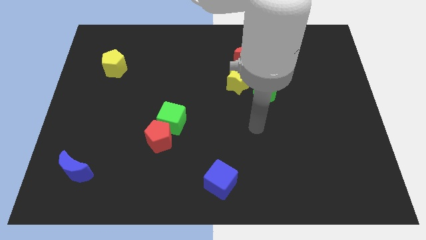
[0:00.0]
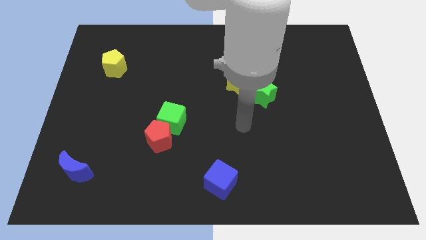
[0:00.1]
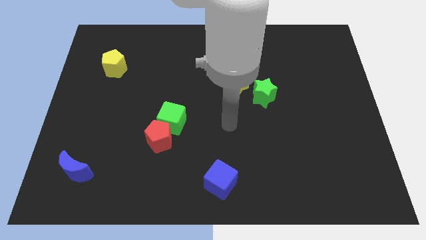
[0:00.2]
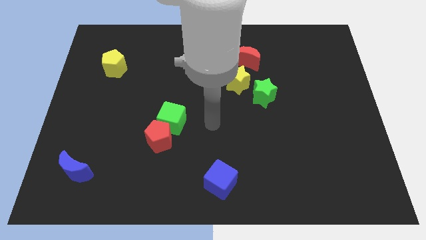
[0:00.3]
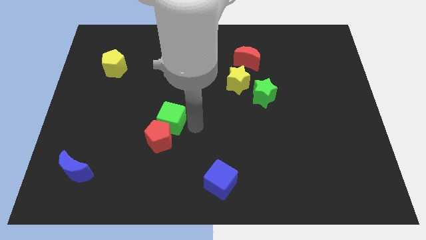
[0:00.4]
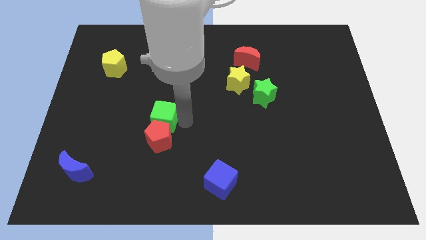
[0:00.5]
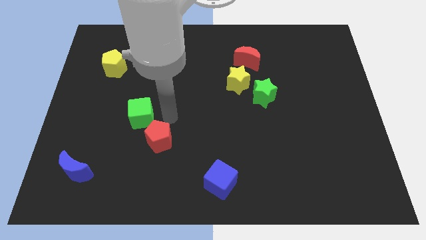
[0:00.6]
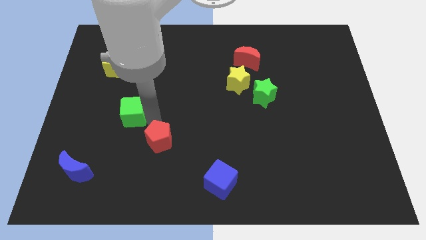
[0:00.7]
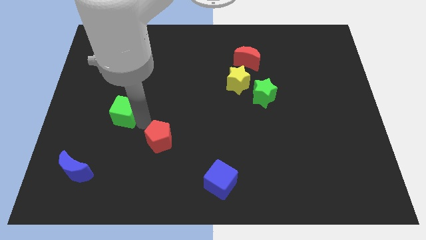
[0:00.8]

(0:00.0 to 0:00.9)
move the red pentagon away from the green cube

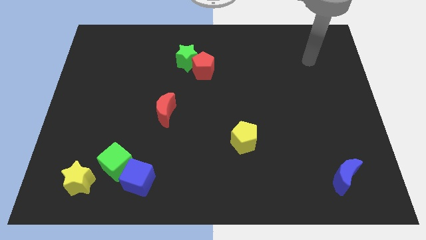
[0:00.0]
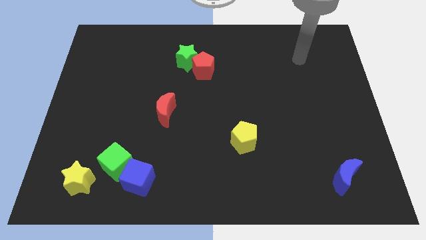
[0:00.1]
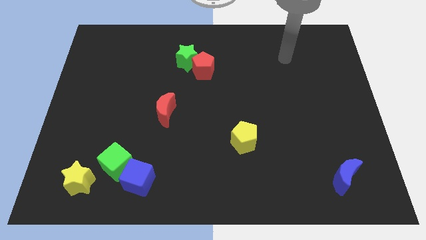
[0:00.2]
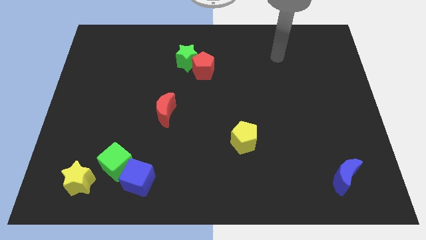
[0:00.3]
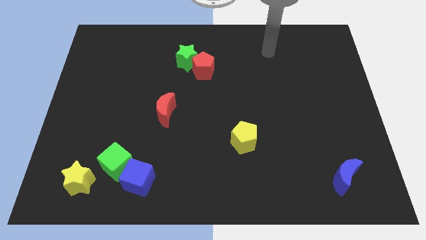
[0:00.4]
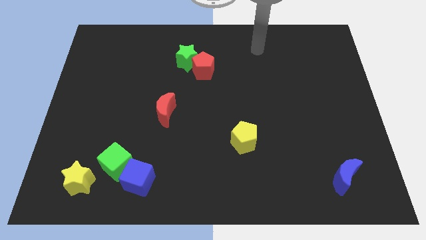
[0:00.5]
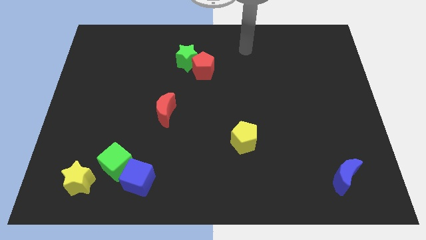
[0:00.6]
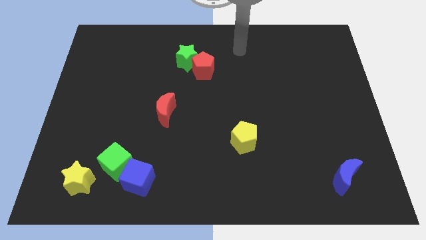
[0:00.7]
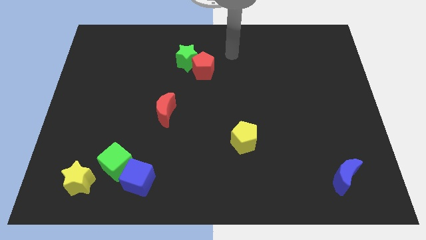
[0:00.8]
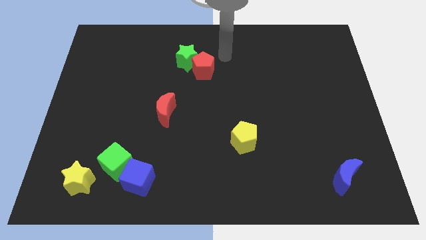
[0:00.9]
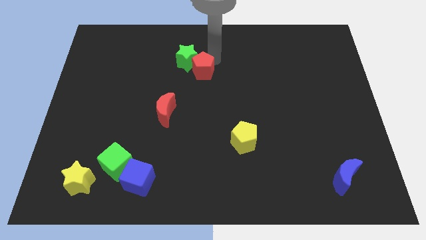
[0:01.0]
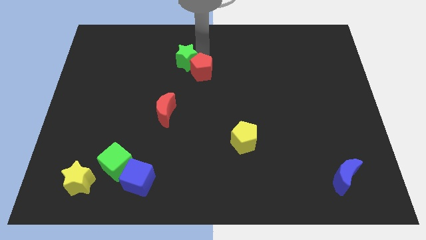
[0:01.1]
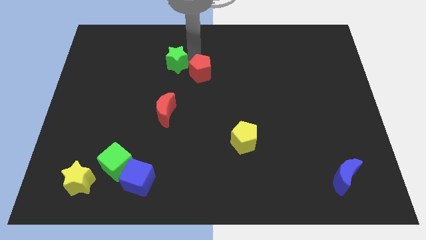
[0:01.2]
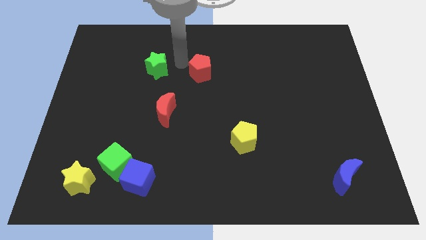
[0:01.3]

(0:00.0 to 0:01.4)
pull the red pentagon apart from the green star

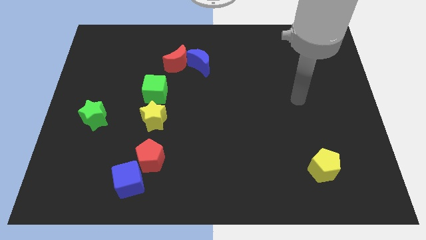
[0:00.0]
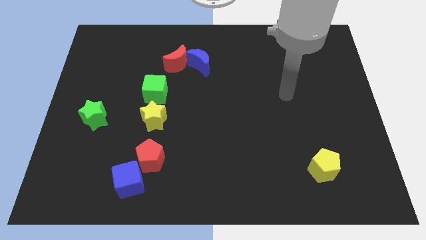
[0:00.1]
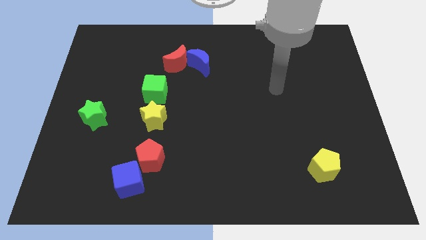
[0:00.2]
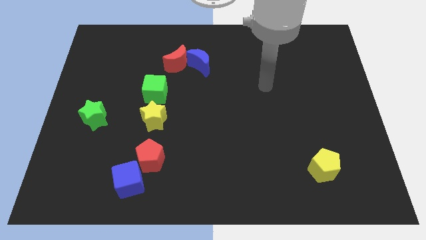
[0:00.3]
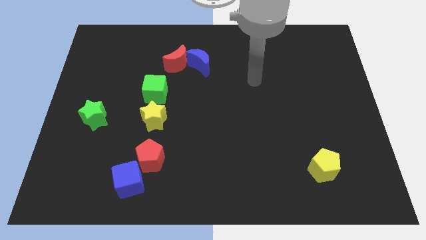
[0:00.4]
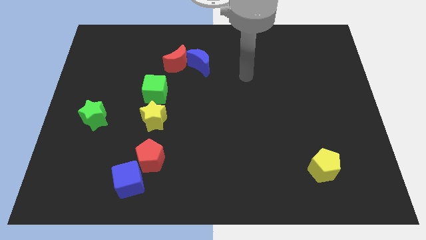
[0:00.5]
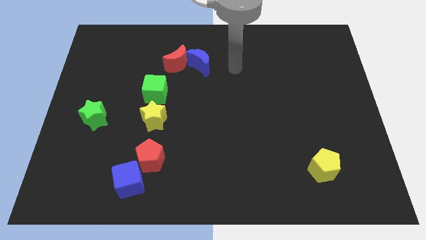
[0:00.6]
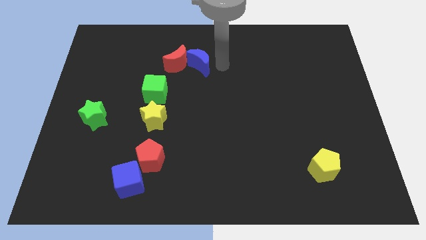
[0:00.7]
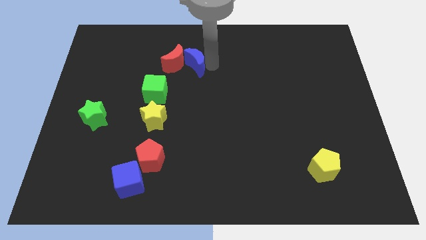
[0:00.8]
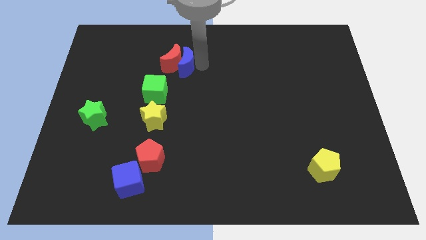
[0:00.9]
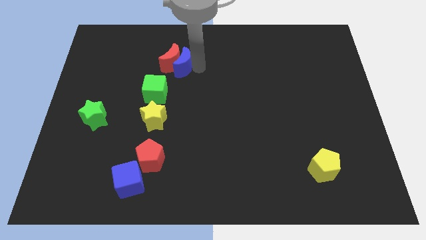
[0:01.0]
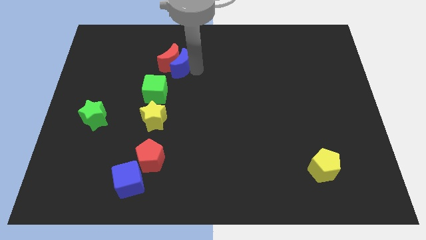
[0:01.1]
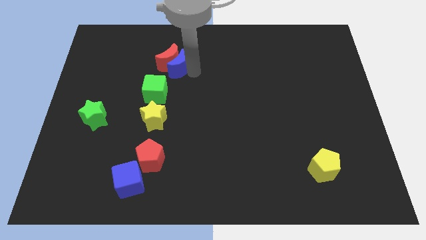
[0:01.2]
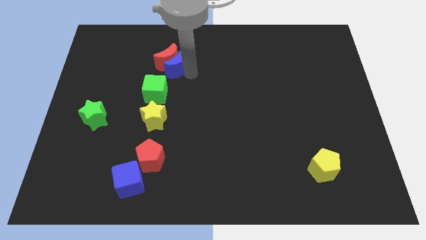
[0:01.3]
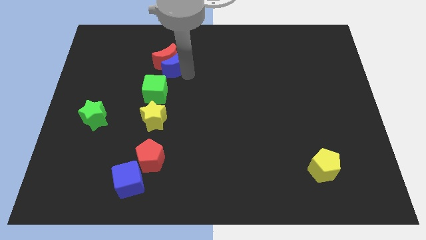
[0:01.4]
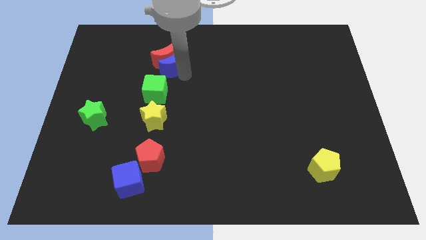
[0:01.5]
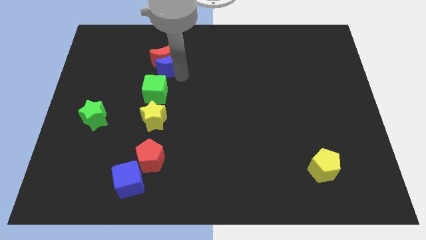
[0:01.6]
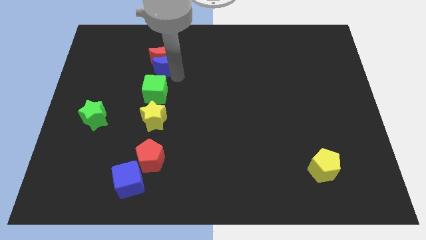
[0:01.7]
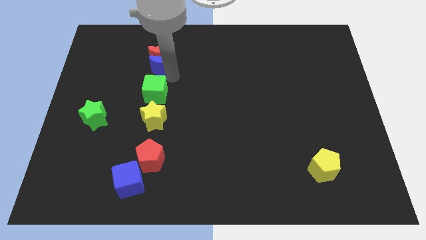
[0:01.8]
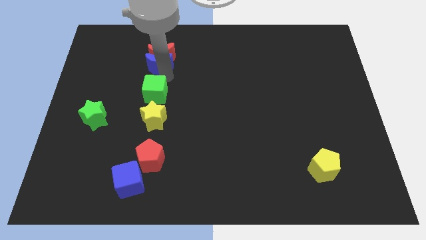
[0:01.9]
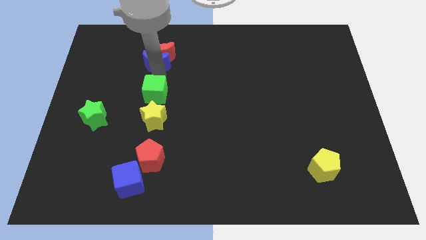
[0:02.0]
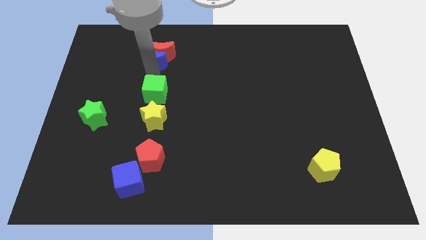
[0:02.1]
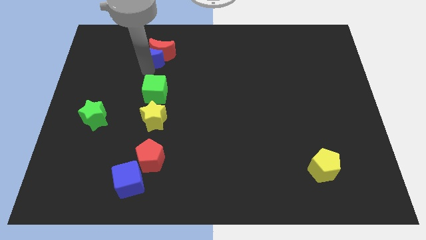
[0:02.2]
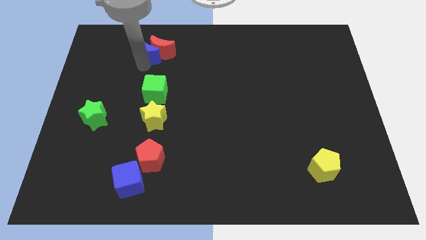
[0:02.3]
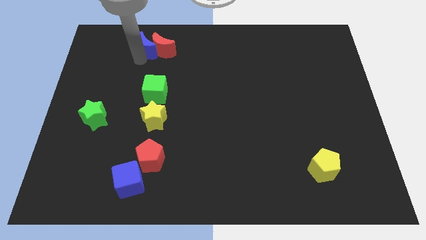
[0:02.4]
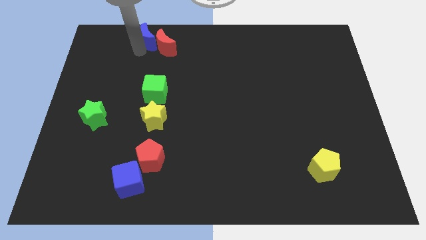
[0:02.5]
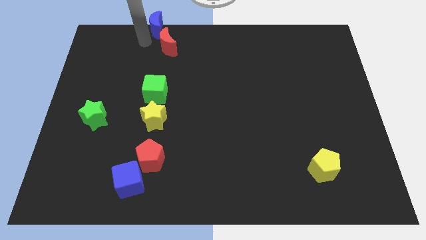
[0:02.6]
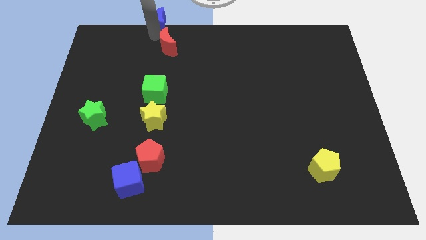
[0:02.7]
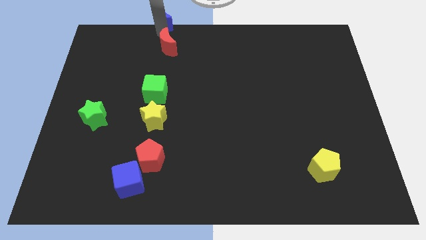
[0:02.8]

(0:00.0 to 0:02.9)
separate the red moon from the blue moon

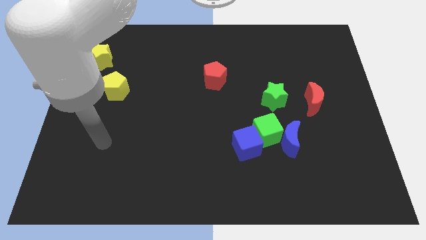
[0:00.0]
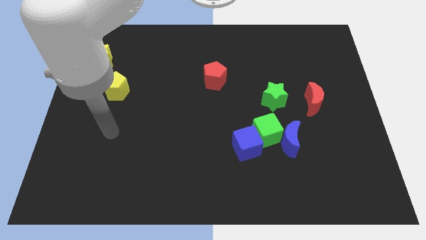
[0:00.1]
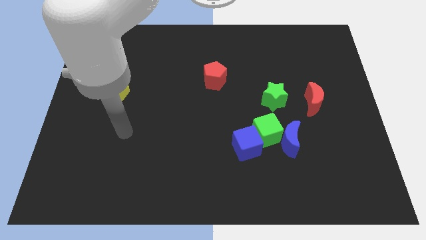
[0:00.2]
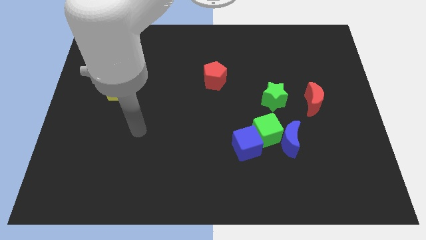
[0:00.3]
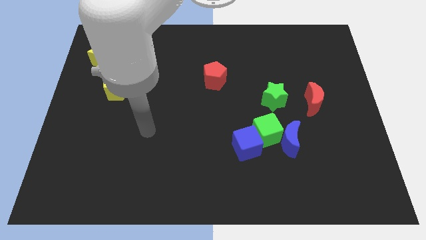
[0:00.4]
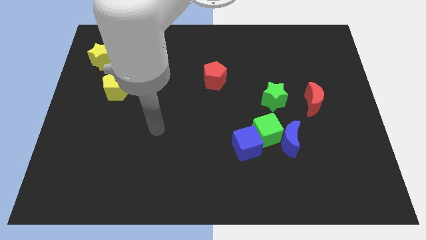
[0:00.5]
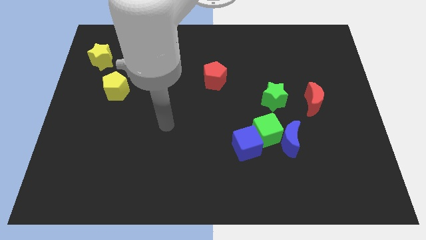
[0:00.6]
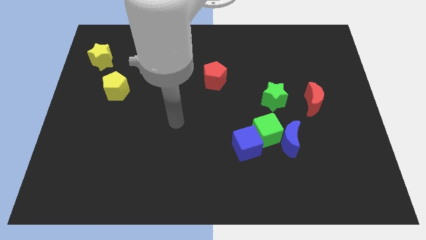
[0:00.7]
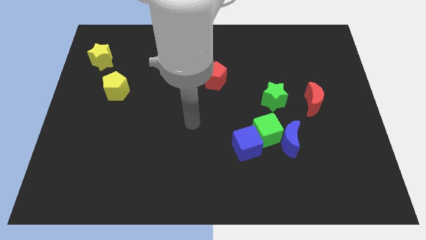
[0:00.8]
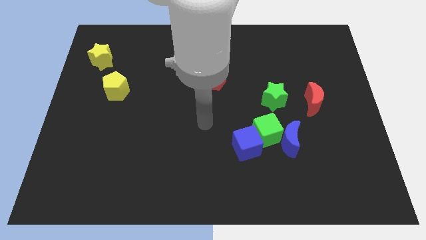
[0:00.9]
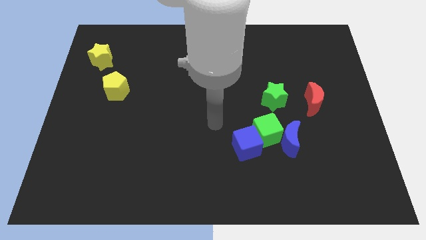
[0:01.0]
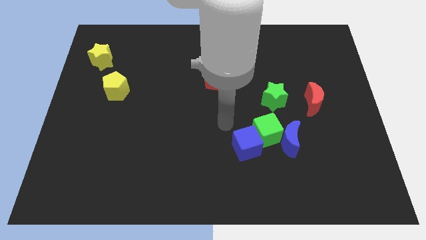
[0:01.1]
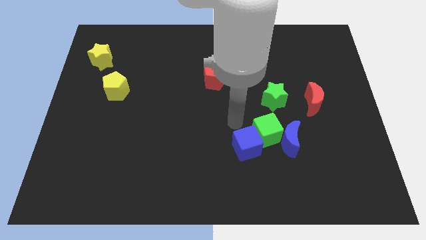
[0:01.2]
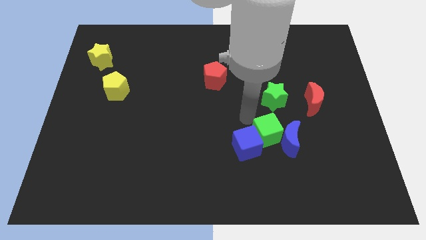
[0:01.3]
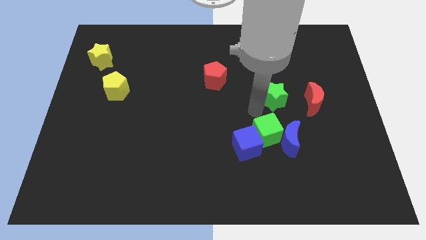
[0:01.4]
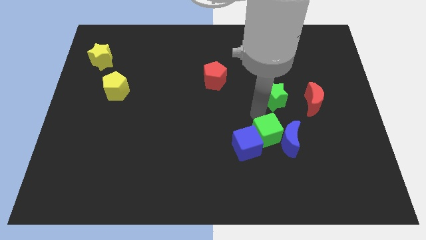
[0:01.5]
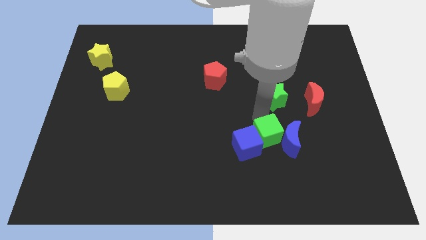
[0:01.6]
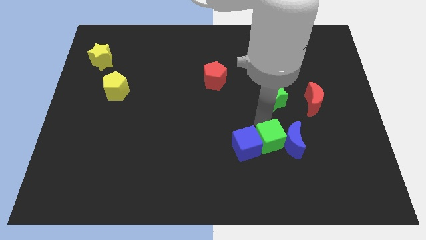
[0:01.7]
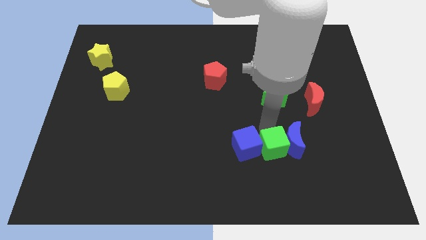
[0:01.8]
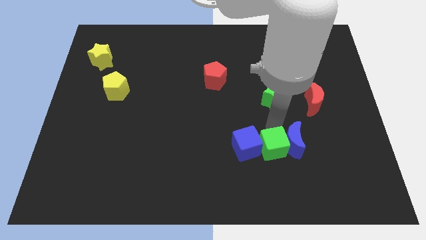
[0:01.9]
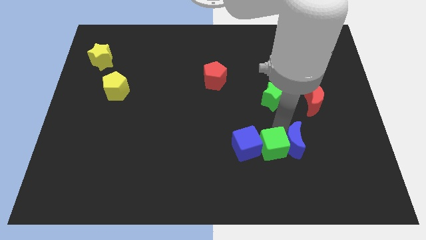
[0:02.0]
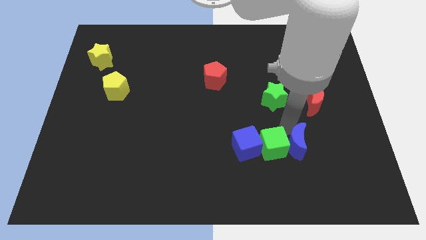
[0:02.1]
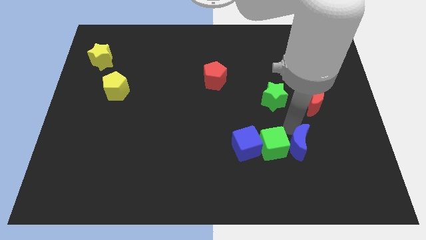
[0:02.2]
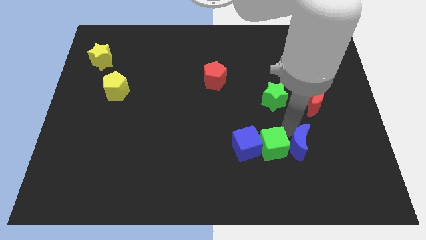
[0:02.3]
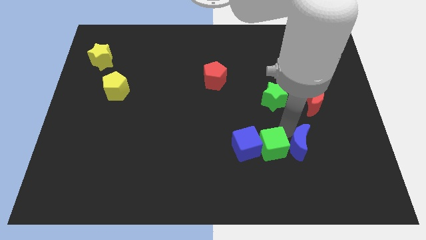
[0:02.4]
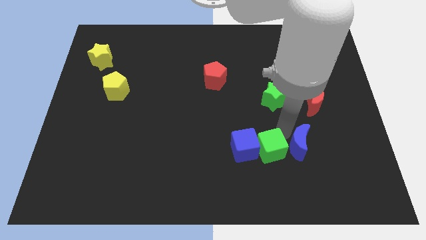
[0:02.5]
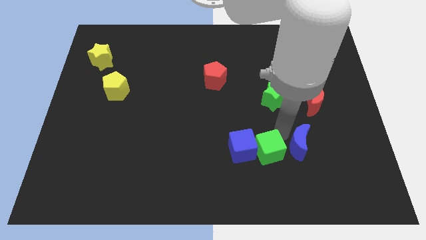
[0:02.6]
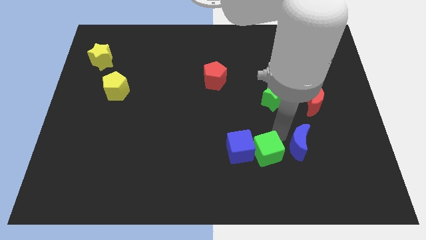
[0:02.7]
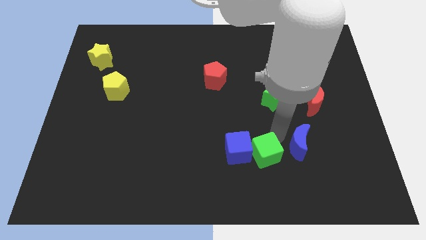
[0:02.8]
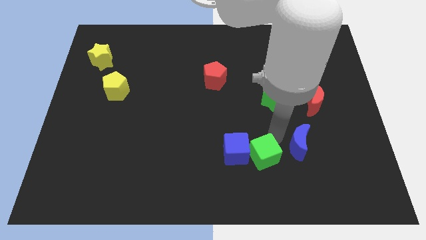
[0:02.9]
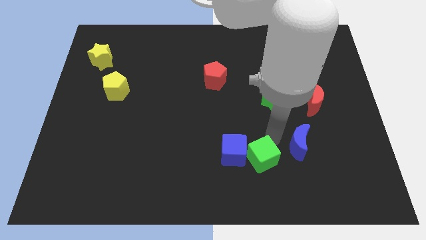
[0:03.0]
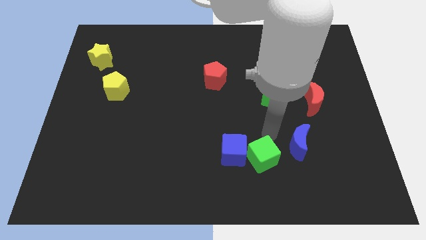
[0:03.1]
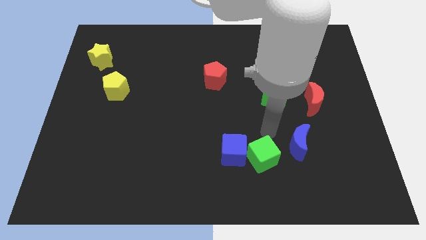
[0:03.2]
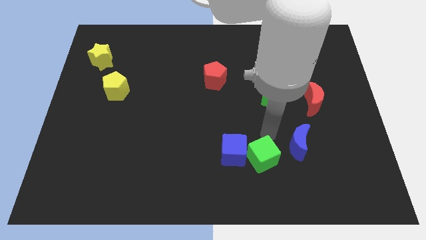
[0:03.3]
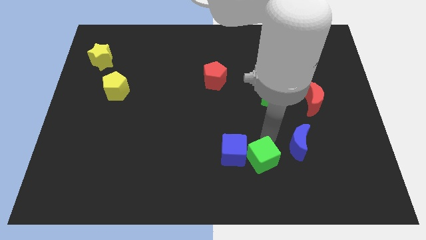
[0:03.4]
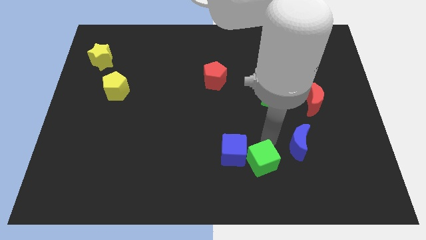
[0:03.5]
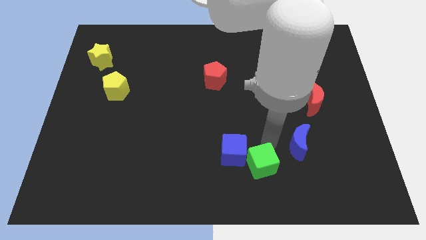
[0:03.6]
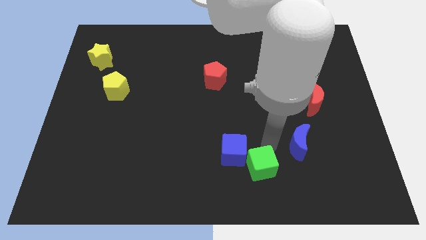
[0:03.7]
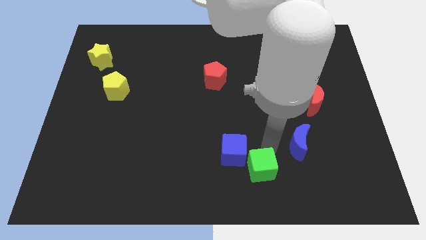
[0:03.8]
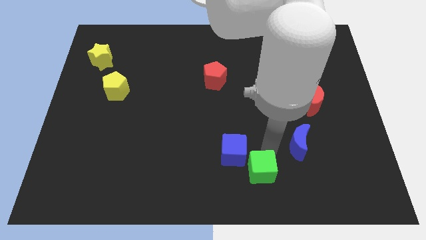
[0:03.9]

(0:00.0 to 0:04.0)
move the green cube away from the group of blocks

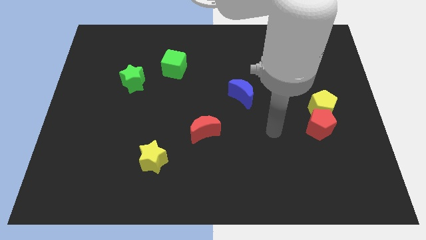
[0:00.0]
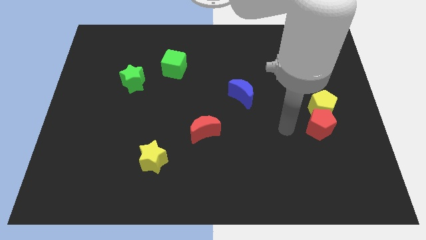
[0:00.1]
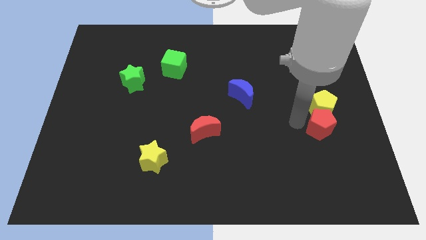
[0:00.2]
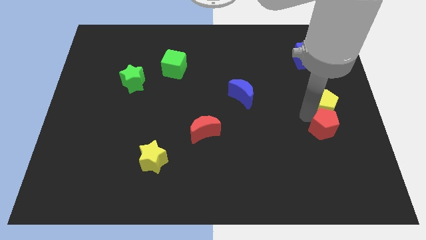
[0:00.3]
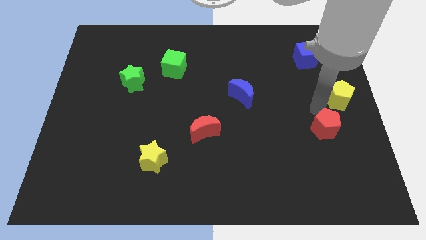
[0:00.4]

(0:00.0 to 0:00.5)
move the red pentagon away from the yellow pentagon
